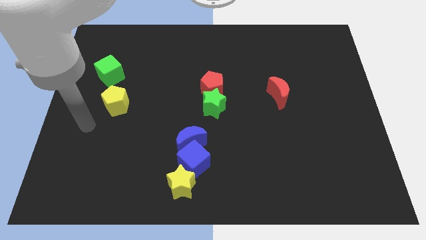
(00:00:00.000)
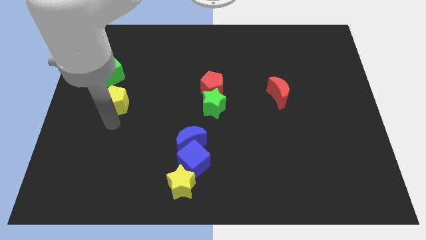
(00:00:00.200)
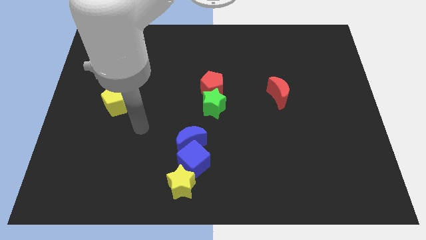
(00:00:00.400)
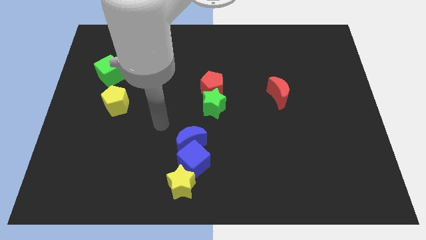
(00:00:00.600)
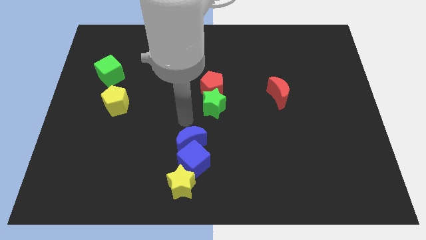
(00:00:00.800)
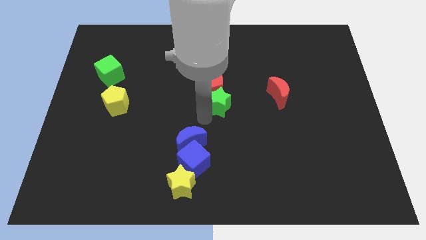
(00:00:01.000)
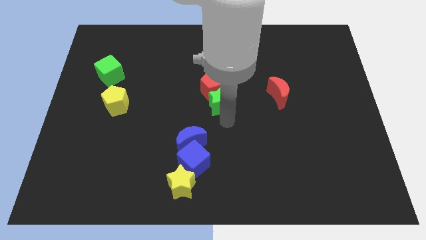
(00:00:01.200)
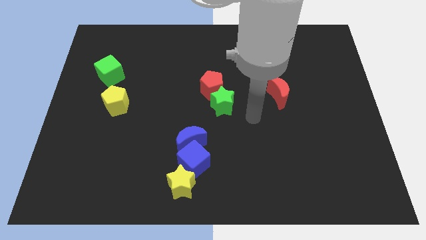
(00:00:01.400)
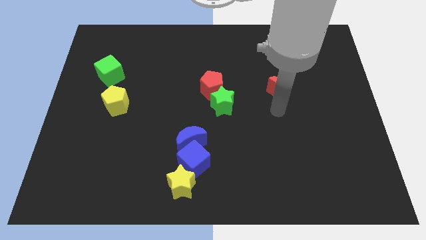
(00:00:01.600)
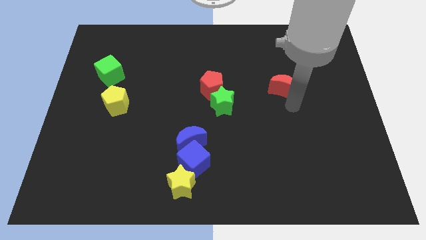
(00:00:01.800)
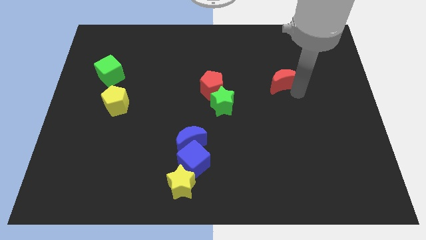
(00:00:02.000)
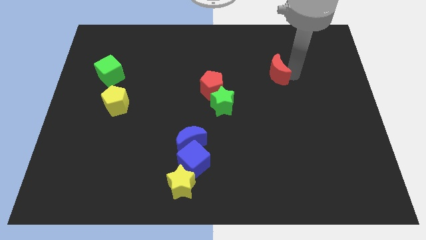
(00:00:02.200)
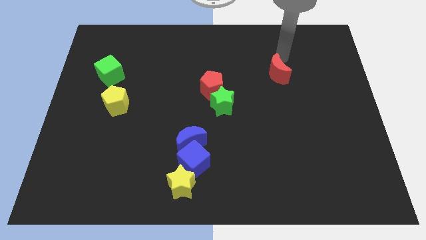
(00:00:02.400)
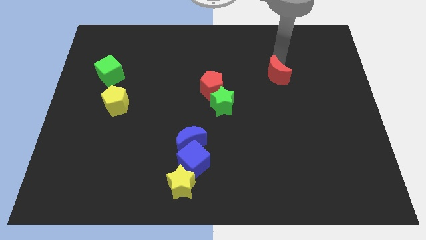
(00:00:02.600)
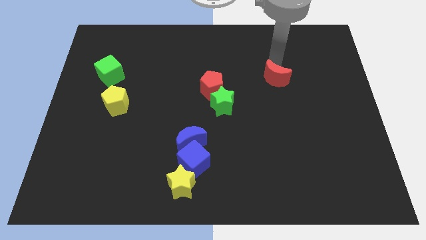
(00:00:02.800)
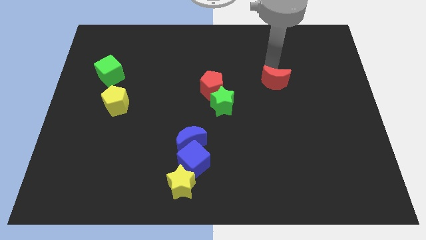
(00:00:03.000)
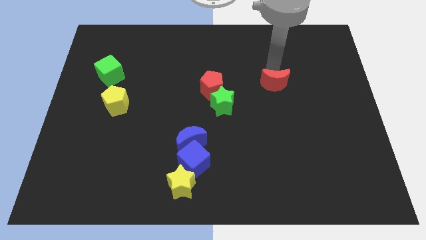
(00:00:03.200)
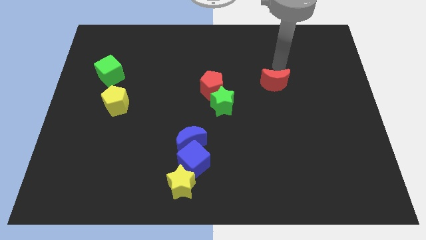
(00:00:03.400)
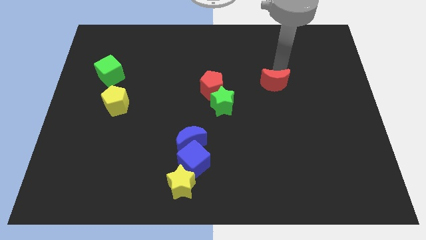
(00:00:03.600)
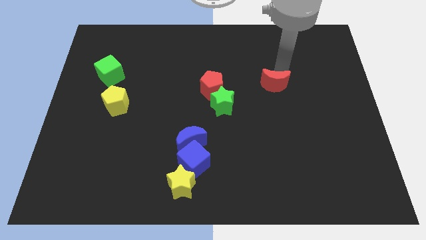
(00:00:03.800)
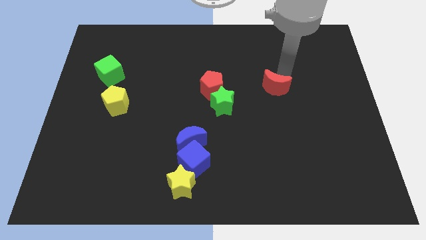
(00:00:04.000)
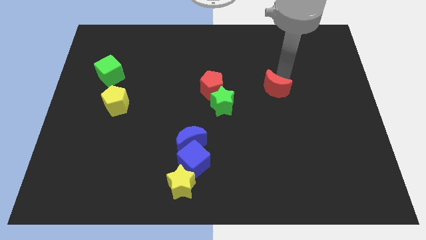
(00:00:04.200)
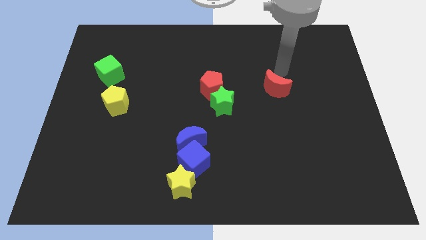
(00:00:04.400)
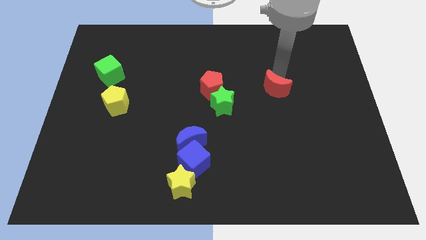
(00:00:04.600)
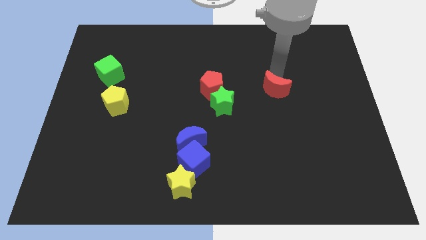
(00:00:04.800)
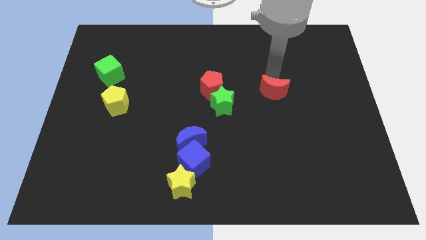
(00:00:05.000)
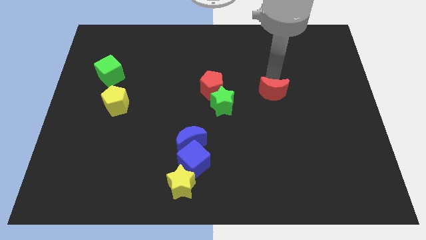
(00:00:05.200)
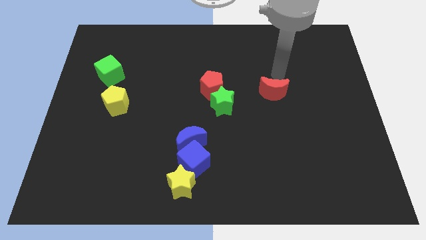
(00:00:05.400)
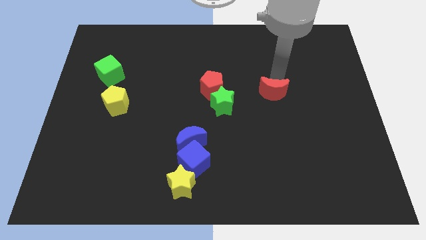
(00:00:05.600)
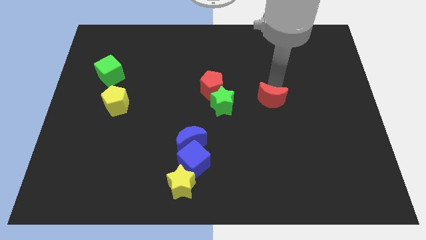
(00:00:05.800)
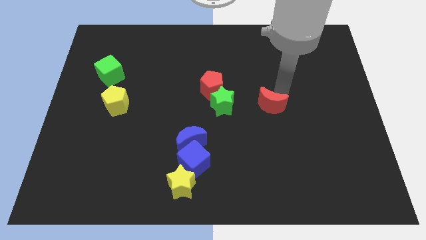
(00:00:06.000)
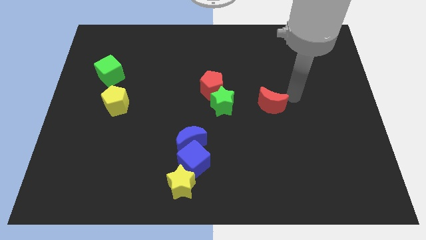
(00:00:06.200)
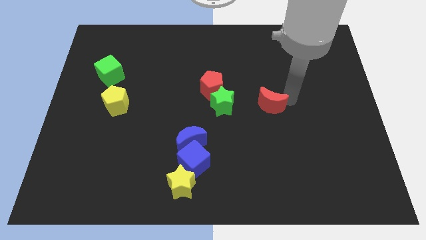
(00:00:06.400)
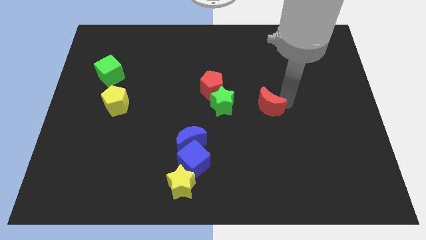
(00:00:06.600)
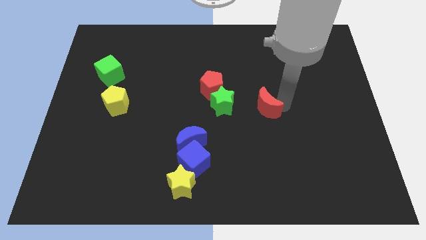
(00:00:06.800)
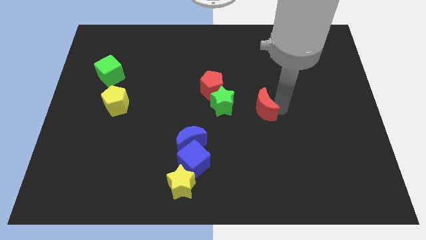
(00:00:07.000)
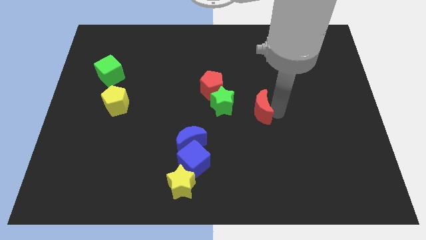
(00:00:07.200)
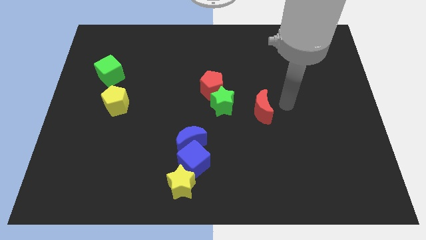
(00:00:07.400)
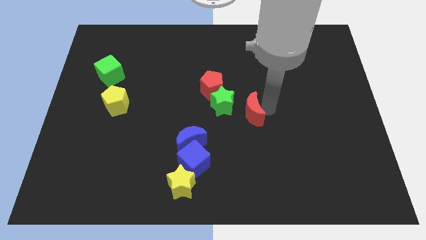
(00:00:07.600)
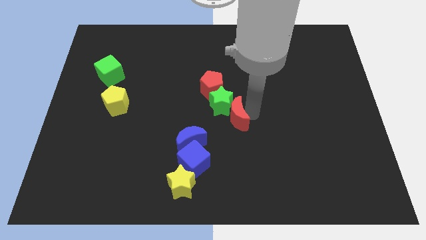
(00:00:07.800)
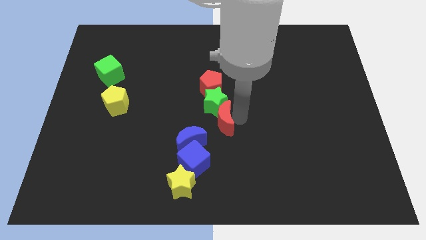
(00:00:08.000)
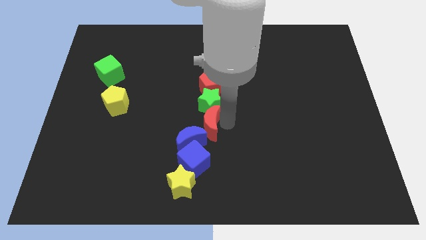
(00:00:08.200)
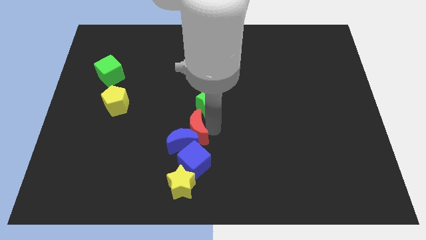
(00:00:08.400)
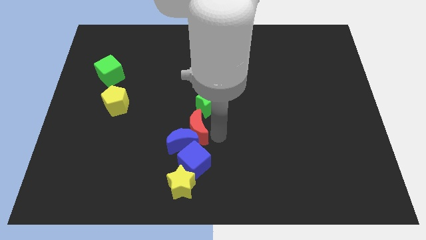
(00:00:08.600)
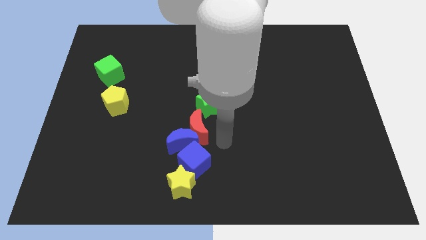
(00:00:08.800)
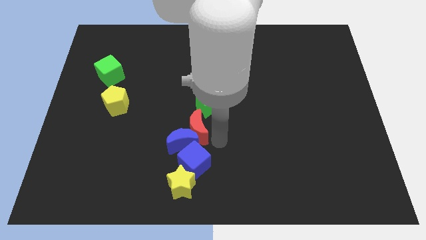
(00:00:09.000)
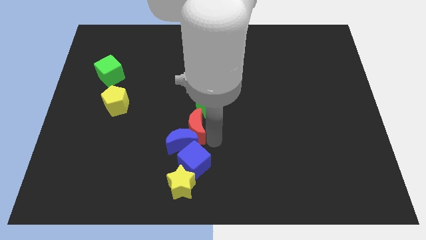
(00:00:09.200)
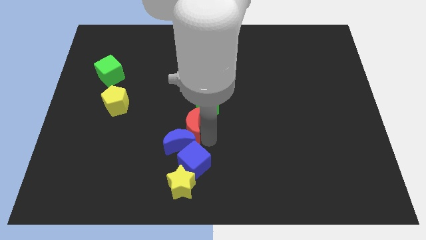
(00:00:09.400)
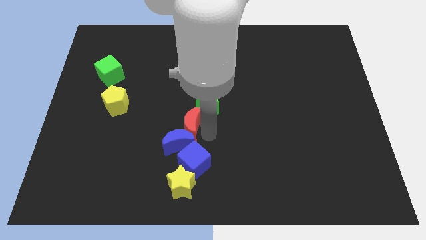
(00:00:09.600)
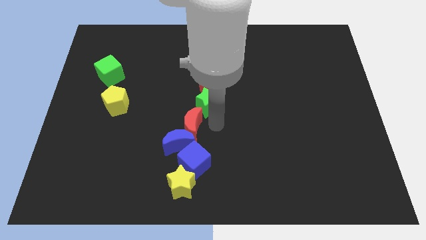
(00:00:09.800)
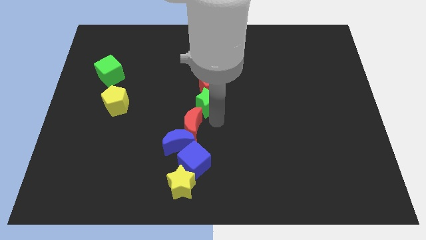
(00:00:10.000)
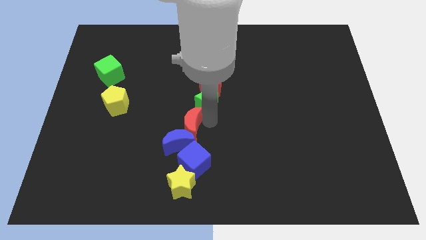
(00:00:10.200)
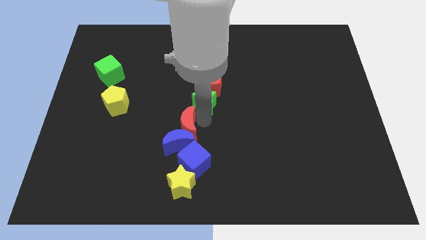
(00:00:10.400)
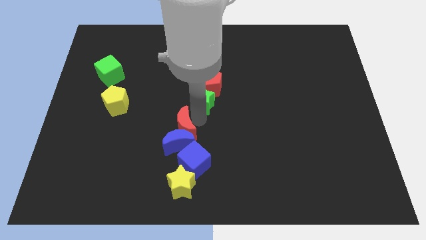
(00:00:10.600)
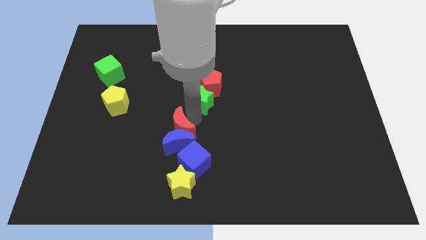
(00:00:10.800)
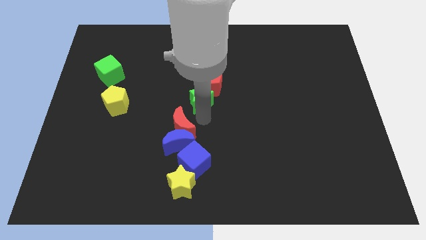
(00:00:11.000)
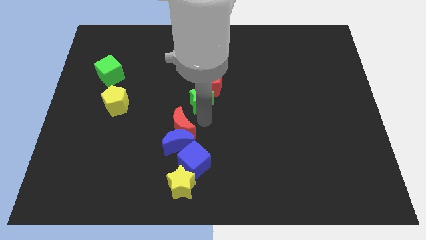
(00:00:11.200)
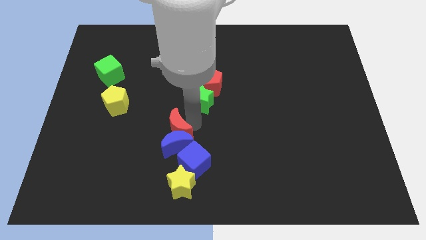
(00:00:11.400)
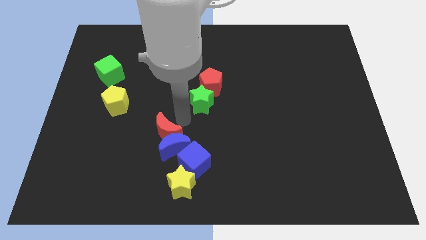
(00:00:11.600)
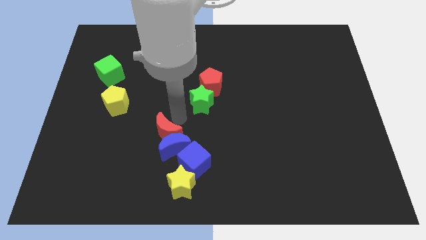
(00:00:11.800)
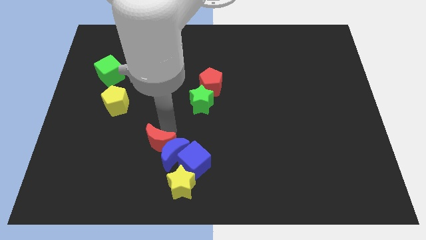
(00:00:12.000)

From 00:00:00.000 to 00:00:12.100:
move the red moon to the left of the blue cube

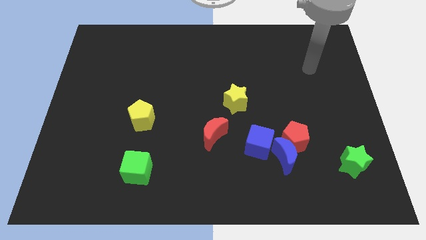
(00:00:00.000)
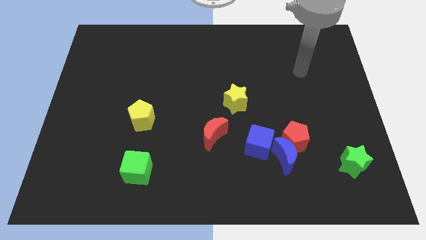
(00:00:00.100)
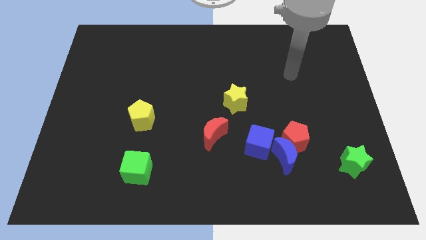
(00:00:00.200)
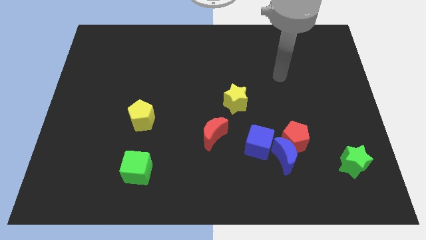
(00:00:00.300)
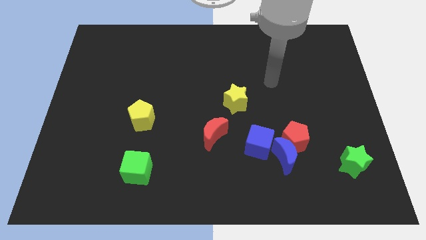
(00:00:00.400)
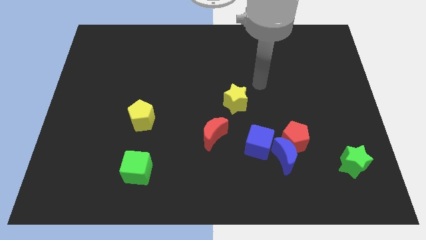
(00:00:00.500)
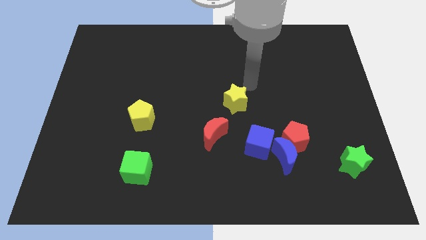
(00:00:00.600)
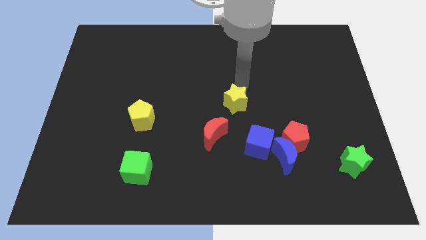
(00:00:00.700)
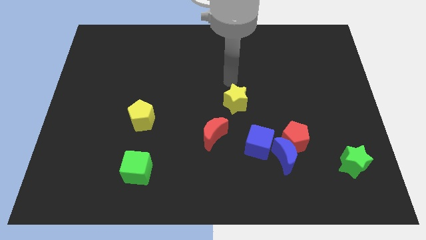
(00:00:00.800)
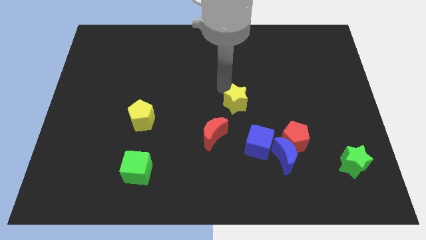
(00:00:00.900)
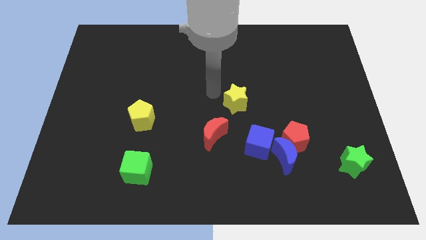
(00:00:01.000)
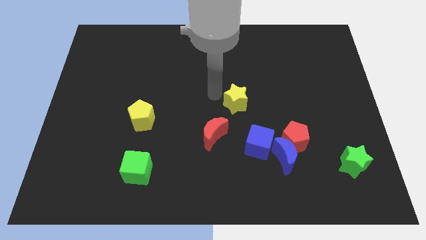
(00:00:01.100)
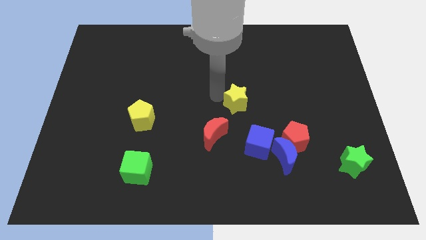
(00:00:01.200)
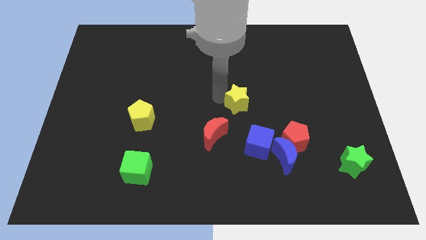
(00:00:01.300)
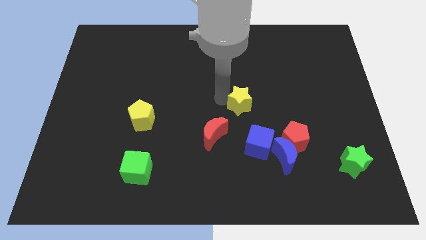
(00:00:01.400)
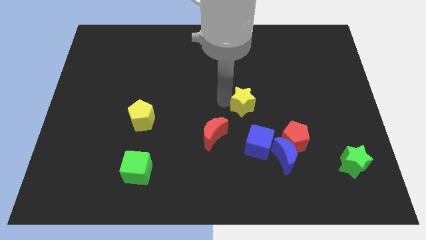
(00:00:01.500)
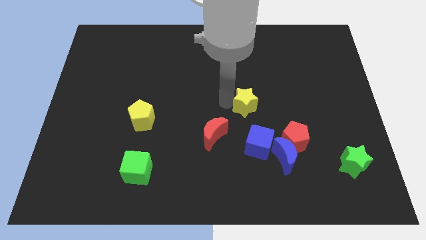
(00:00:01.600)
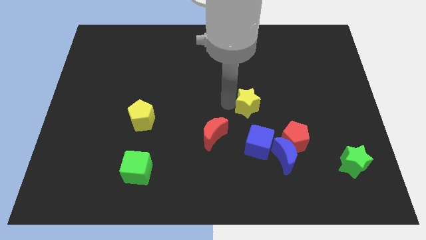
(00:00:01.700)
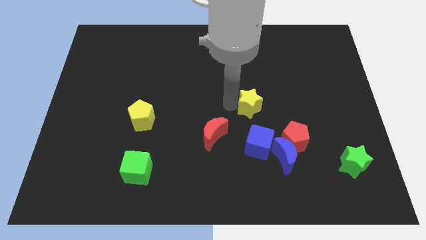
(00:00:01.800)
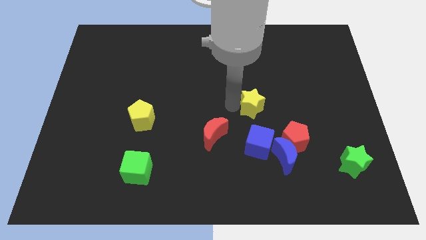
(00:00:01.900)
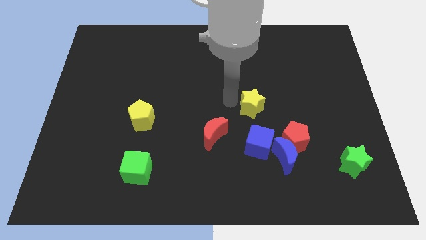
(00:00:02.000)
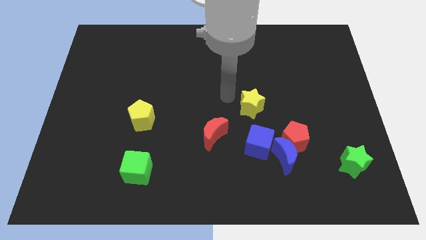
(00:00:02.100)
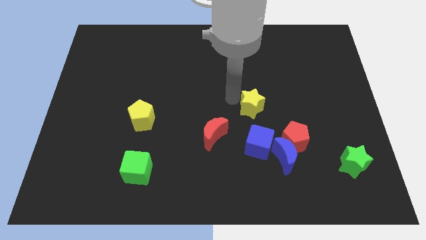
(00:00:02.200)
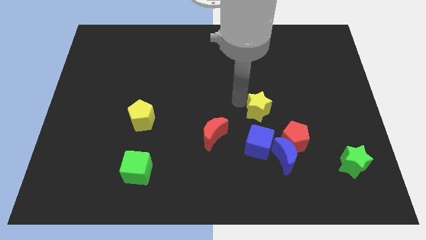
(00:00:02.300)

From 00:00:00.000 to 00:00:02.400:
put the yellow star to the top side of the blue moon
